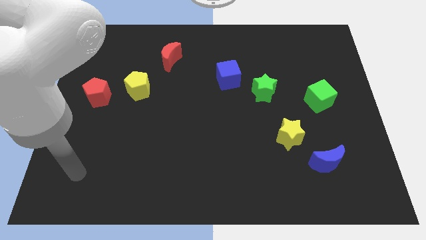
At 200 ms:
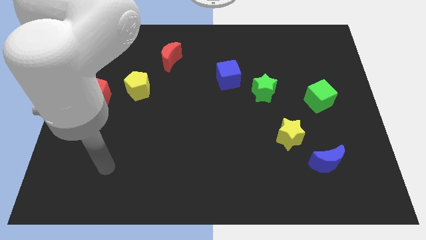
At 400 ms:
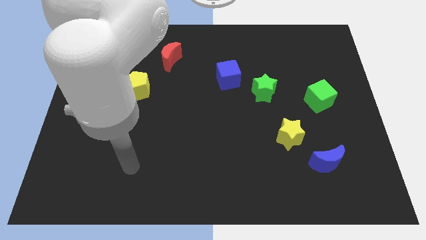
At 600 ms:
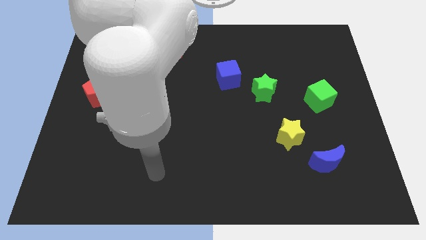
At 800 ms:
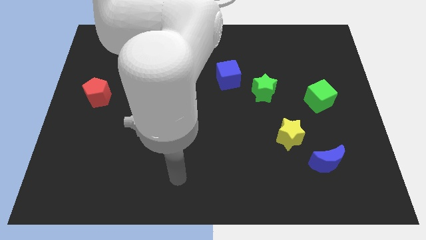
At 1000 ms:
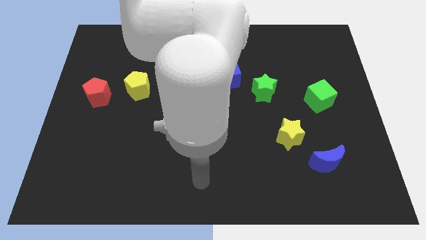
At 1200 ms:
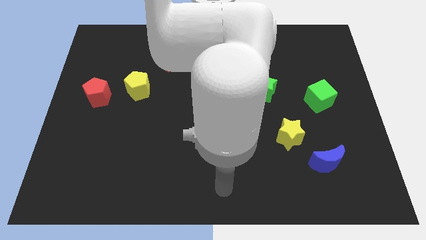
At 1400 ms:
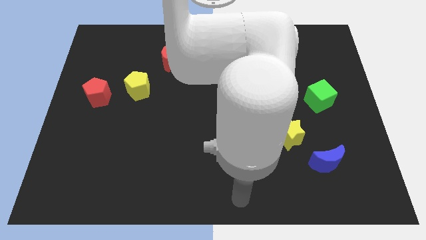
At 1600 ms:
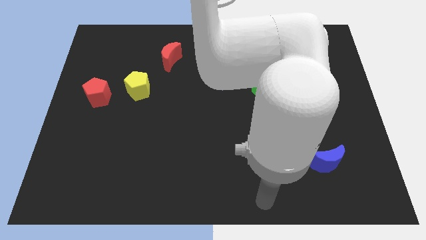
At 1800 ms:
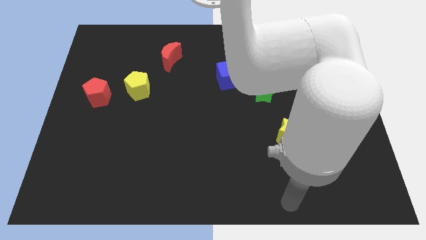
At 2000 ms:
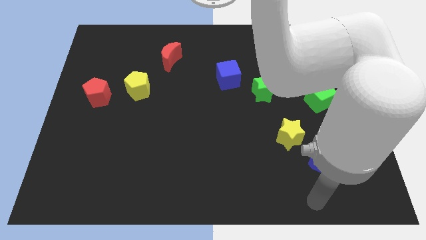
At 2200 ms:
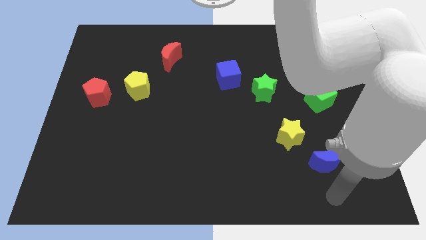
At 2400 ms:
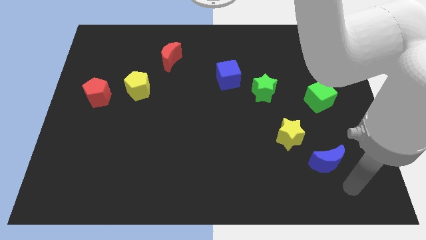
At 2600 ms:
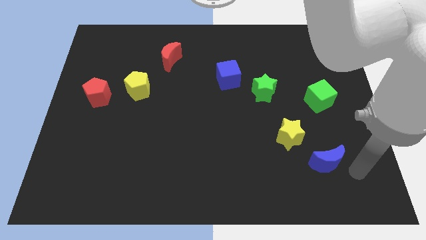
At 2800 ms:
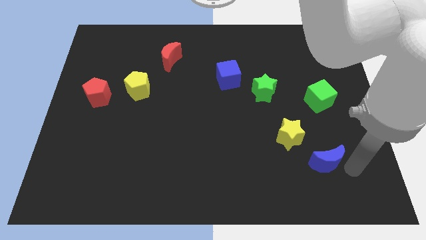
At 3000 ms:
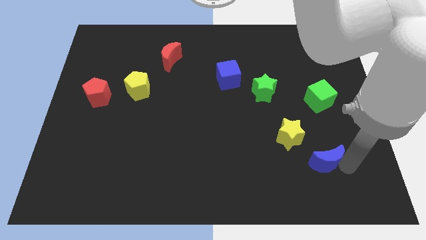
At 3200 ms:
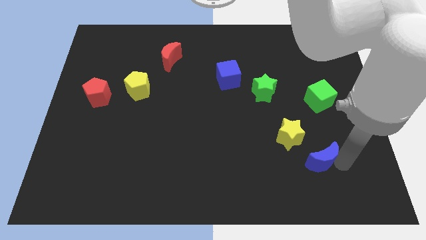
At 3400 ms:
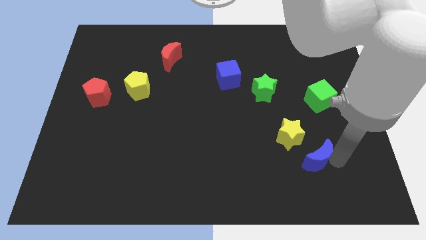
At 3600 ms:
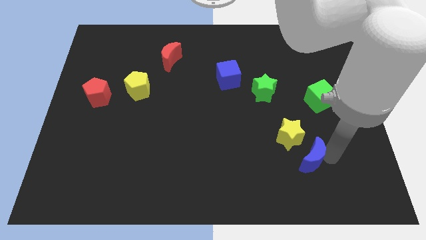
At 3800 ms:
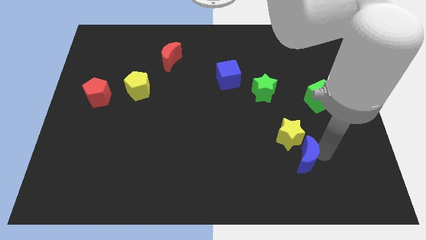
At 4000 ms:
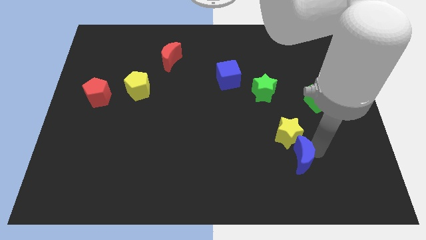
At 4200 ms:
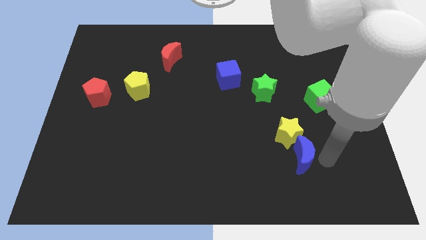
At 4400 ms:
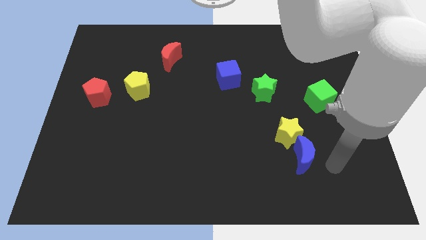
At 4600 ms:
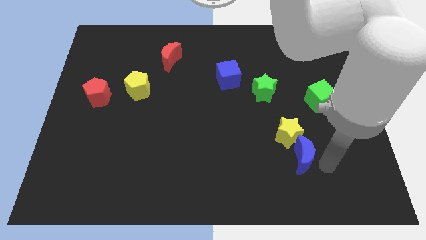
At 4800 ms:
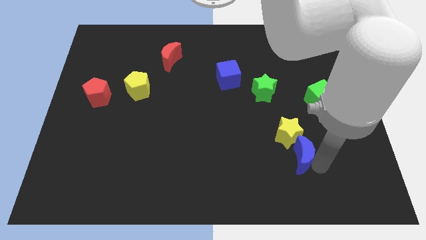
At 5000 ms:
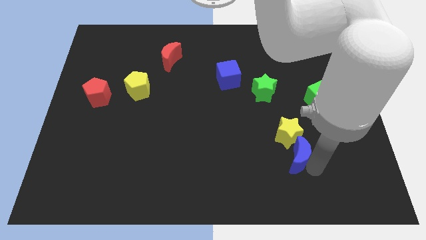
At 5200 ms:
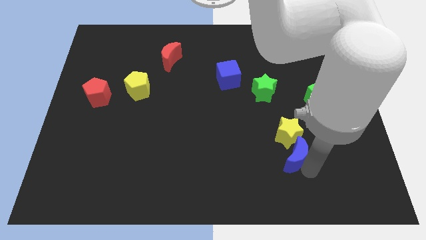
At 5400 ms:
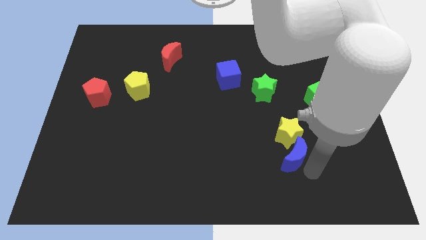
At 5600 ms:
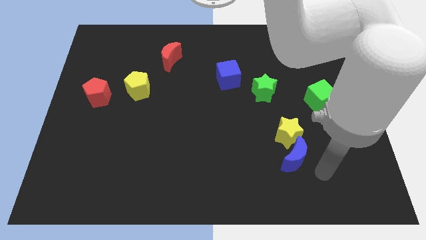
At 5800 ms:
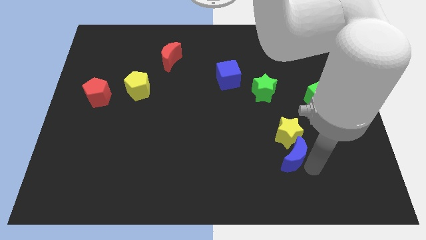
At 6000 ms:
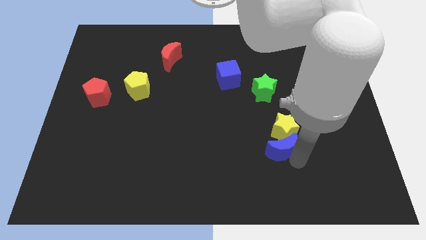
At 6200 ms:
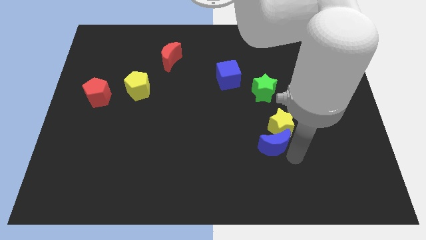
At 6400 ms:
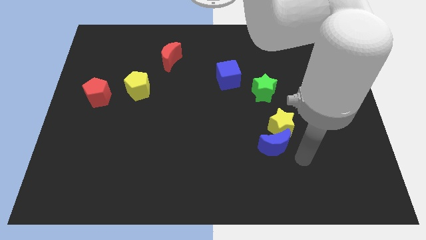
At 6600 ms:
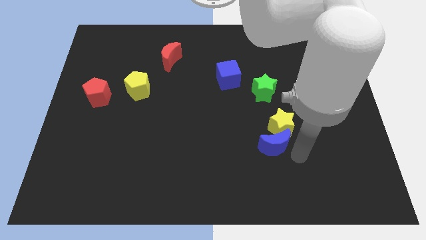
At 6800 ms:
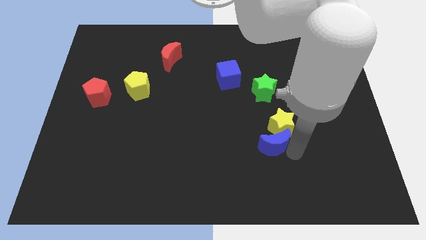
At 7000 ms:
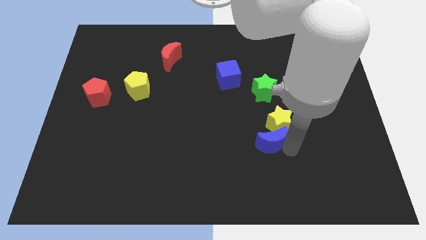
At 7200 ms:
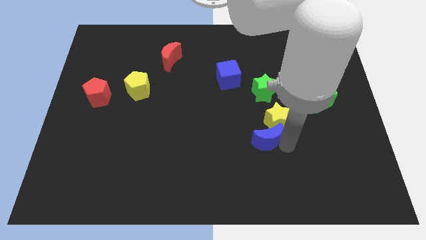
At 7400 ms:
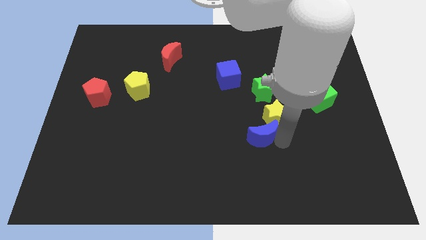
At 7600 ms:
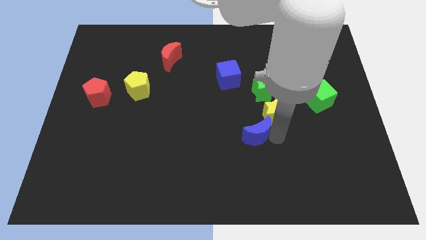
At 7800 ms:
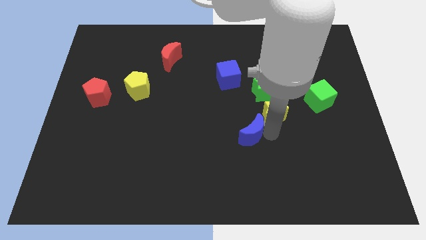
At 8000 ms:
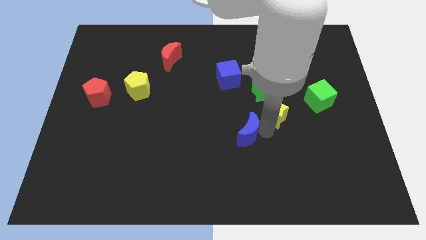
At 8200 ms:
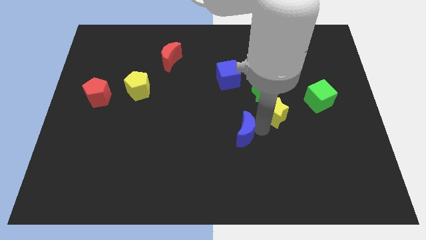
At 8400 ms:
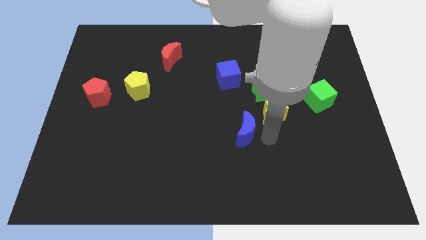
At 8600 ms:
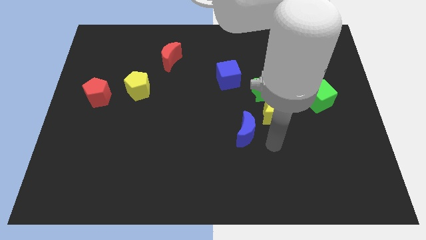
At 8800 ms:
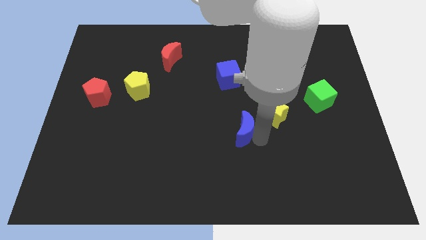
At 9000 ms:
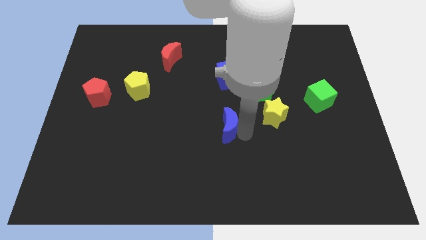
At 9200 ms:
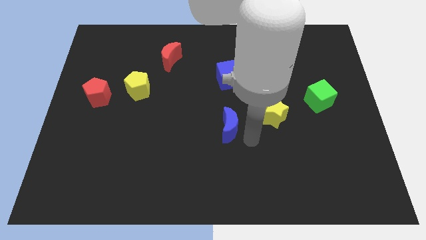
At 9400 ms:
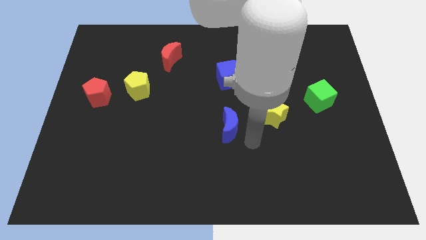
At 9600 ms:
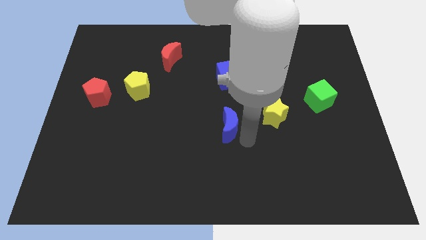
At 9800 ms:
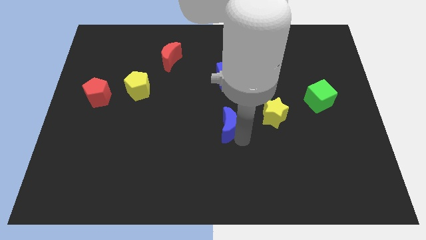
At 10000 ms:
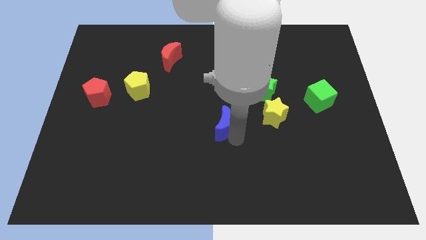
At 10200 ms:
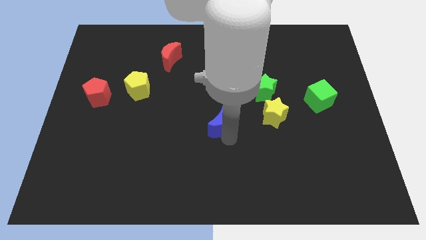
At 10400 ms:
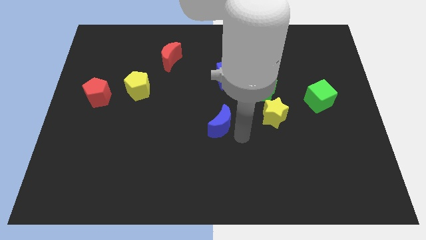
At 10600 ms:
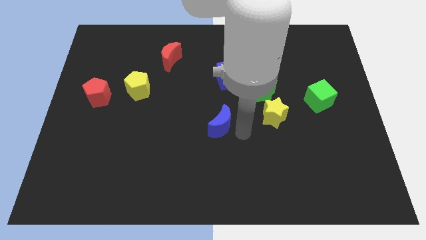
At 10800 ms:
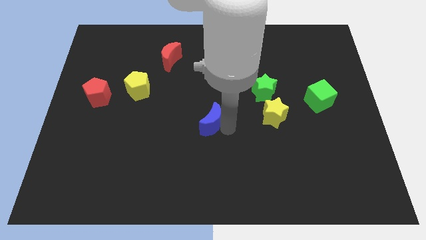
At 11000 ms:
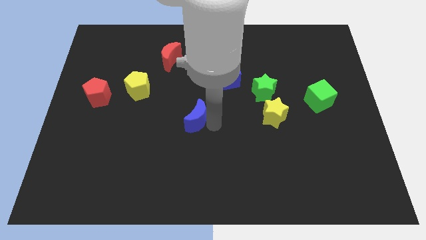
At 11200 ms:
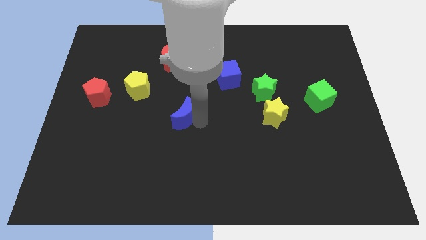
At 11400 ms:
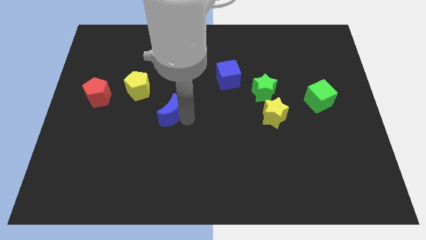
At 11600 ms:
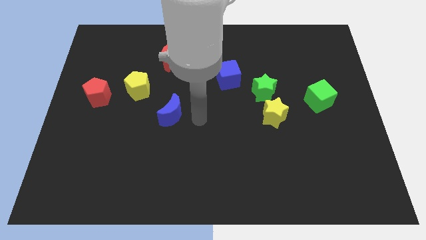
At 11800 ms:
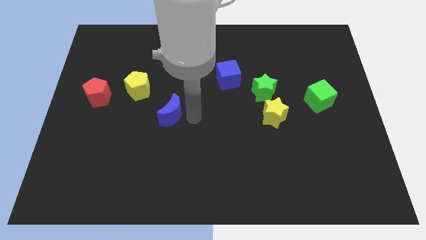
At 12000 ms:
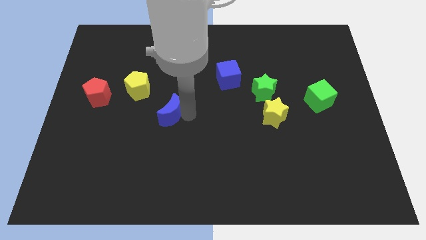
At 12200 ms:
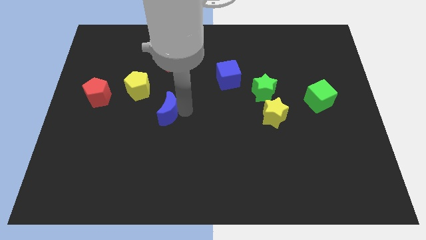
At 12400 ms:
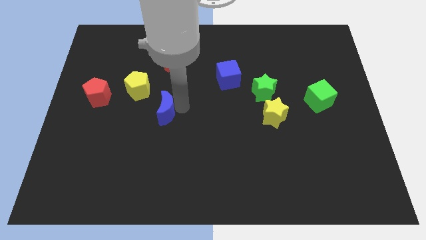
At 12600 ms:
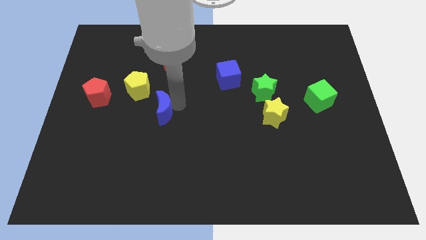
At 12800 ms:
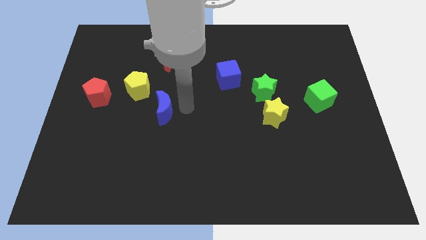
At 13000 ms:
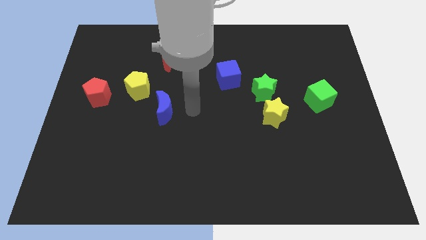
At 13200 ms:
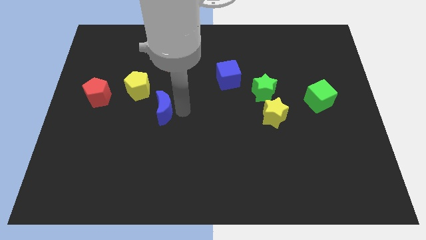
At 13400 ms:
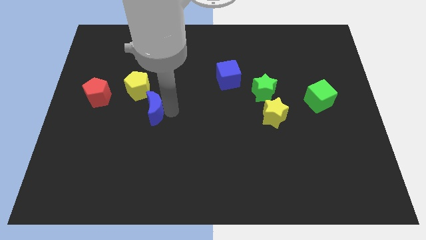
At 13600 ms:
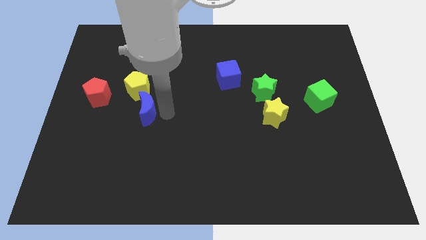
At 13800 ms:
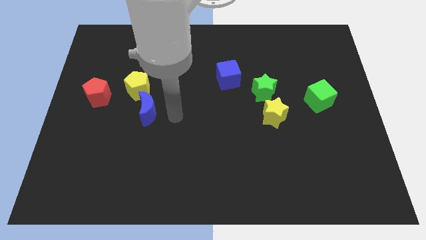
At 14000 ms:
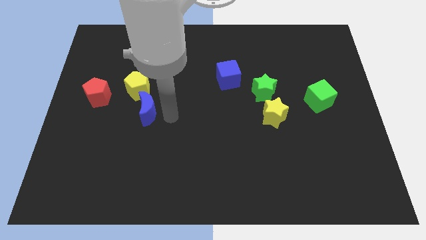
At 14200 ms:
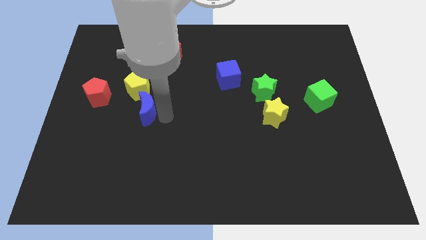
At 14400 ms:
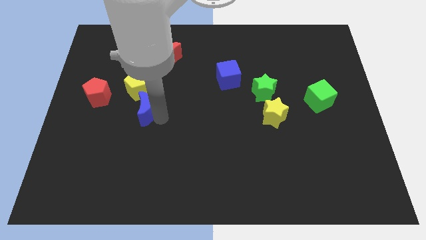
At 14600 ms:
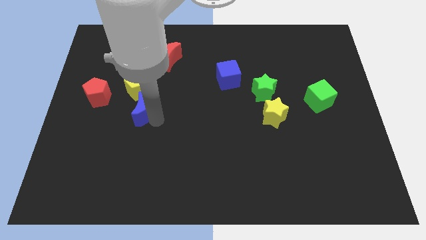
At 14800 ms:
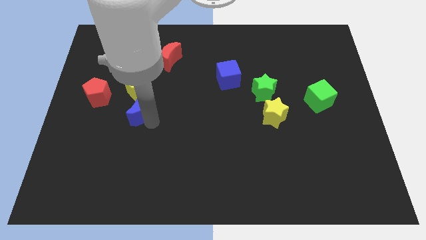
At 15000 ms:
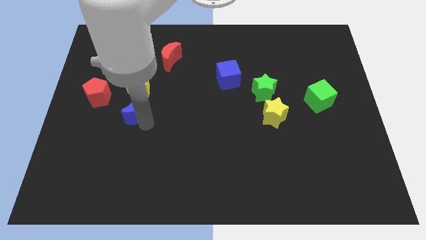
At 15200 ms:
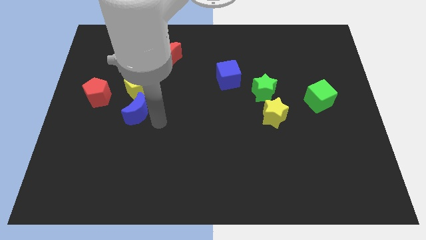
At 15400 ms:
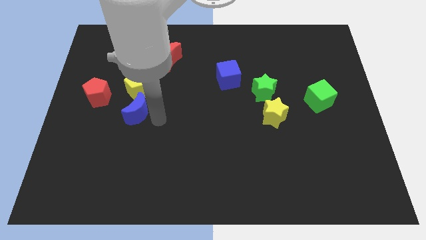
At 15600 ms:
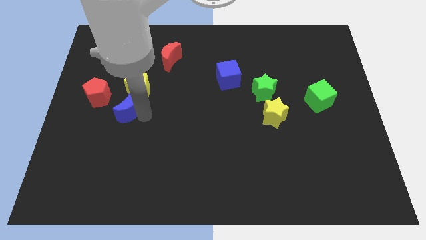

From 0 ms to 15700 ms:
push the blue moon to the bottom left of the yellow pentagon
